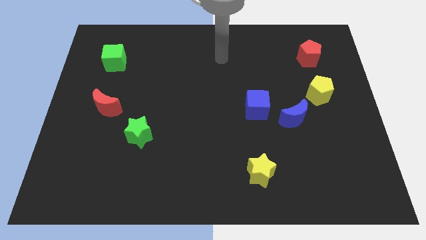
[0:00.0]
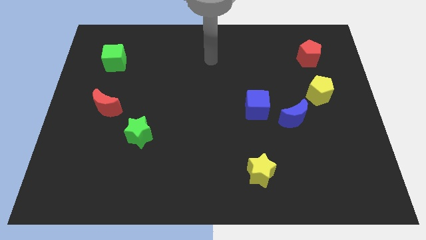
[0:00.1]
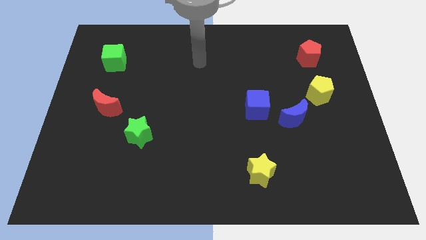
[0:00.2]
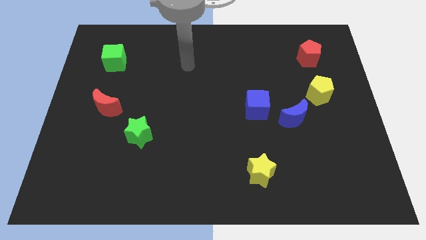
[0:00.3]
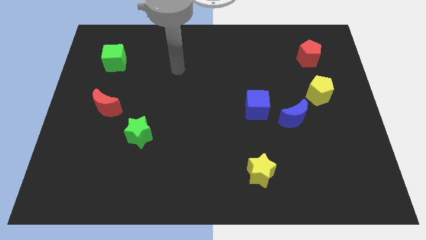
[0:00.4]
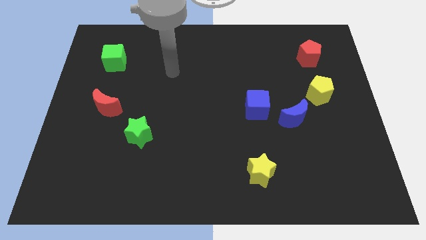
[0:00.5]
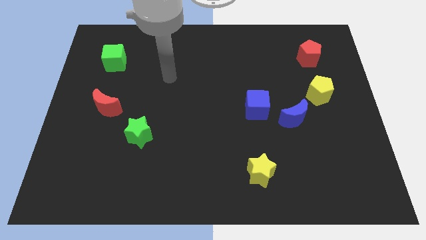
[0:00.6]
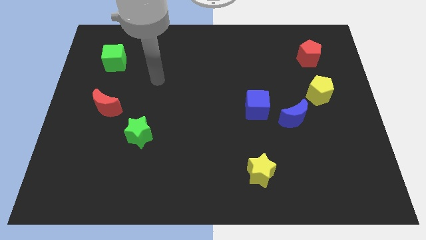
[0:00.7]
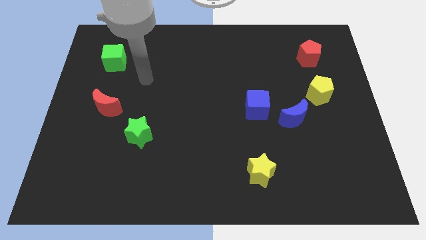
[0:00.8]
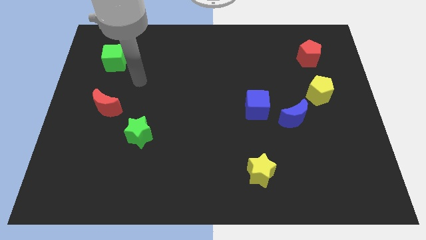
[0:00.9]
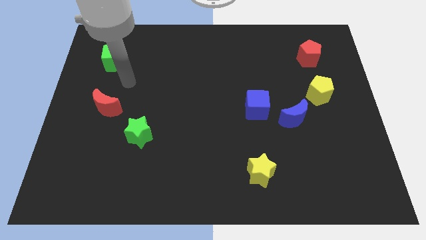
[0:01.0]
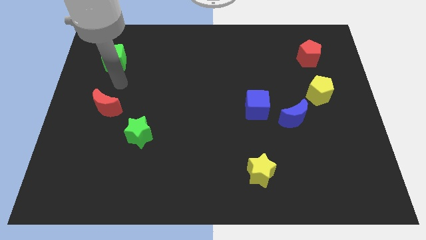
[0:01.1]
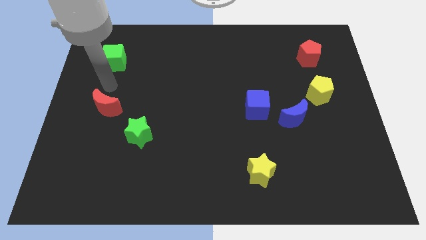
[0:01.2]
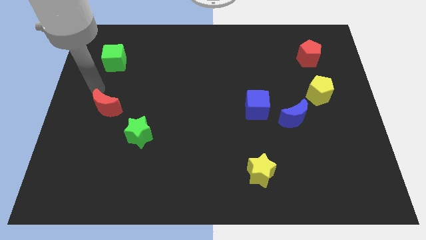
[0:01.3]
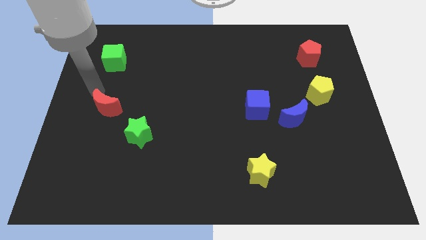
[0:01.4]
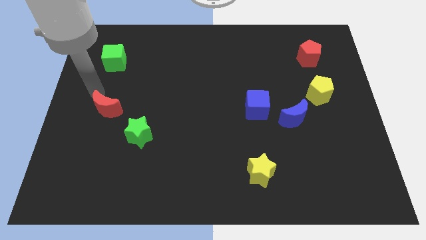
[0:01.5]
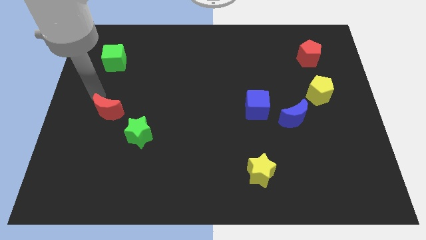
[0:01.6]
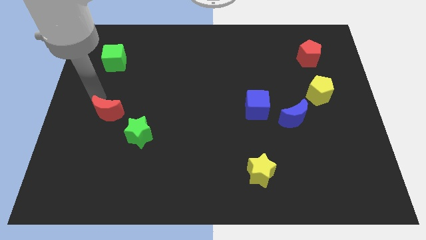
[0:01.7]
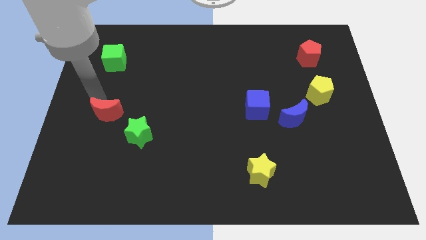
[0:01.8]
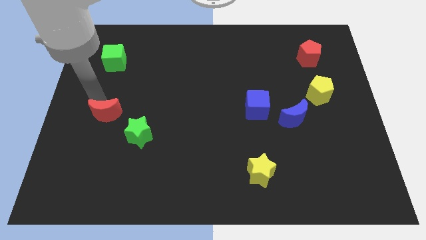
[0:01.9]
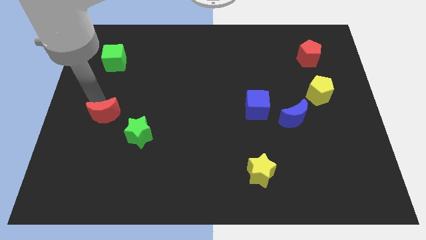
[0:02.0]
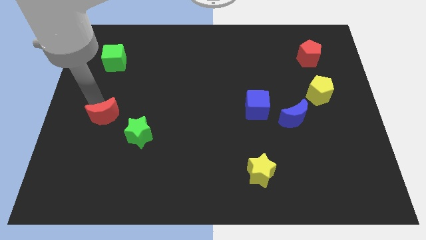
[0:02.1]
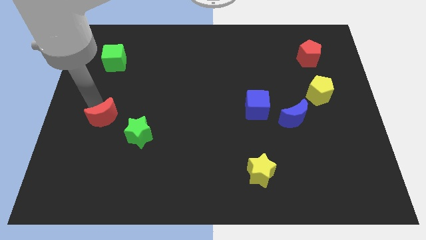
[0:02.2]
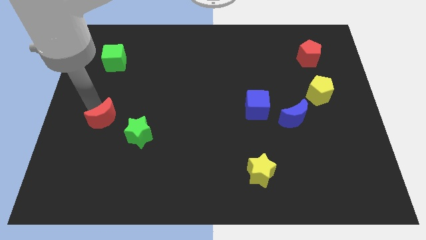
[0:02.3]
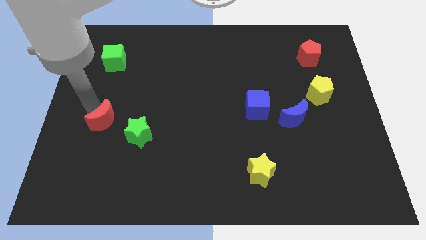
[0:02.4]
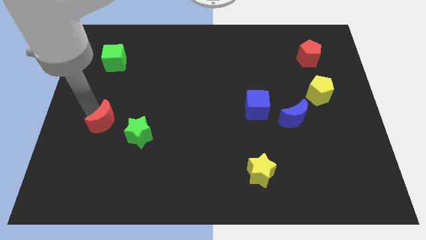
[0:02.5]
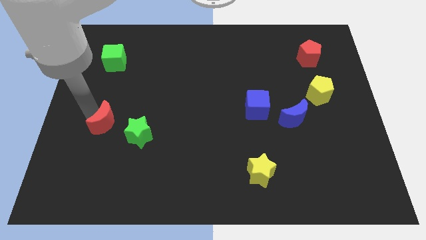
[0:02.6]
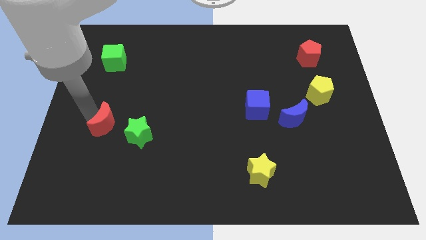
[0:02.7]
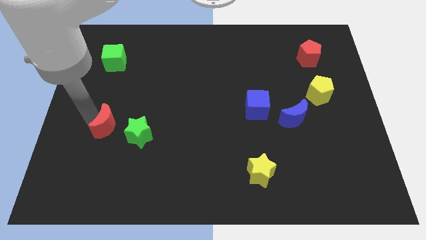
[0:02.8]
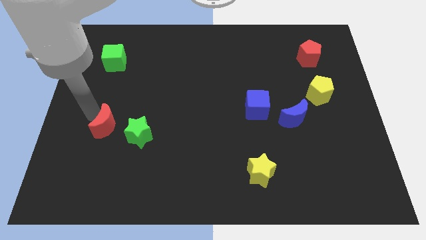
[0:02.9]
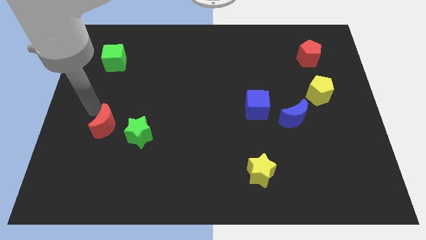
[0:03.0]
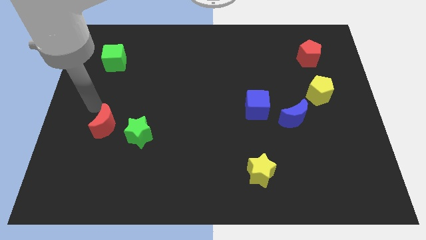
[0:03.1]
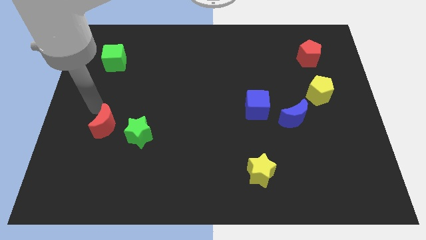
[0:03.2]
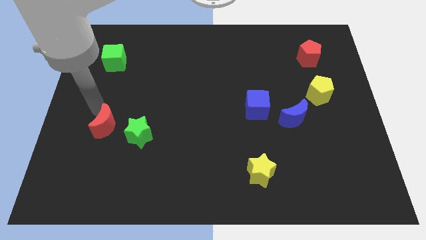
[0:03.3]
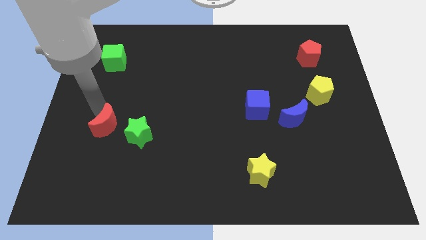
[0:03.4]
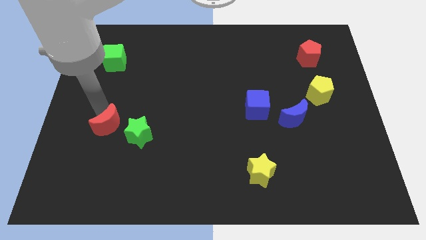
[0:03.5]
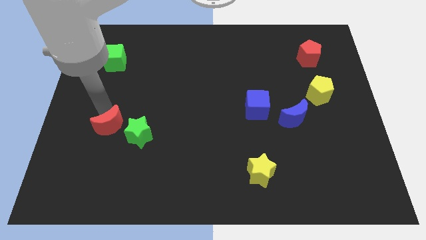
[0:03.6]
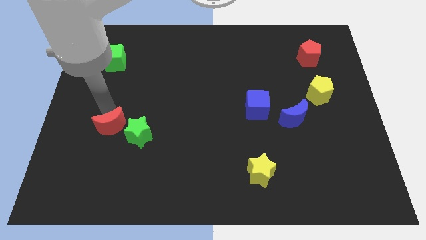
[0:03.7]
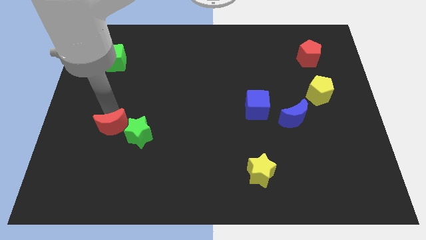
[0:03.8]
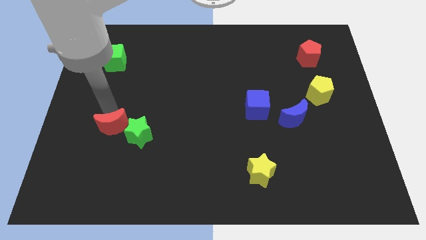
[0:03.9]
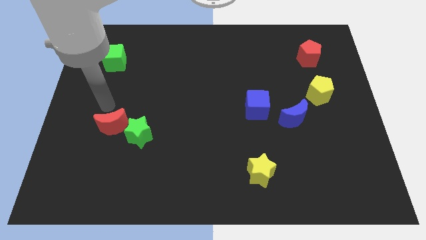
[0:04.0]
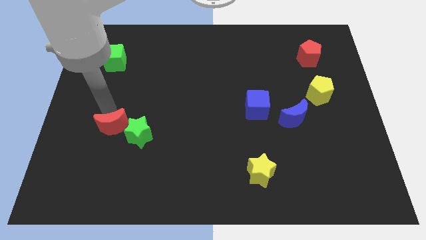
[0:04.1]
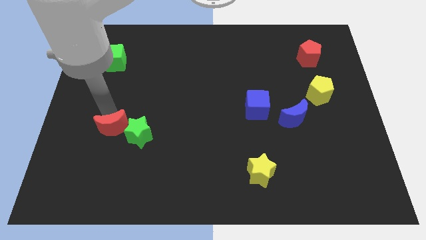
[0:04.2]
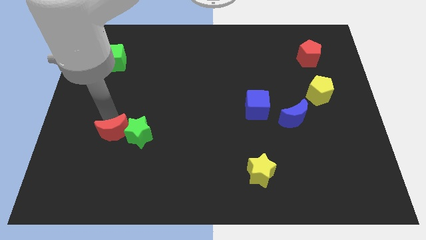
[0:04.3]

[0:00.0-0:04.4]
push the red moon a little down and right

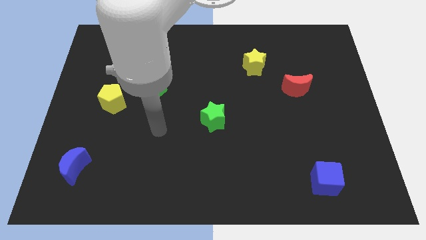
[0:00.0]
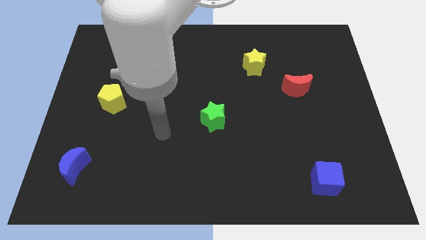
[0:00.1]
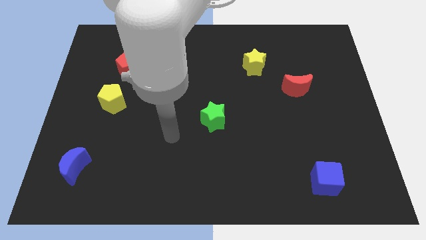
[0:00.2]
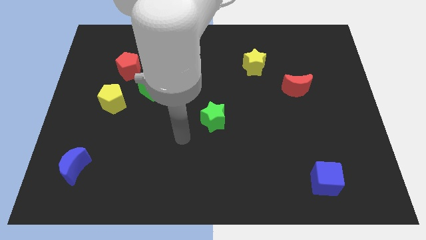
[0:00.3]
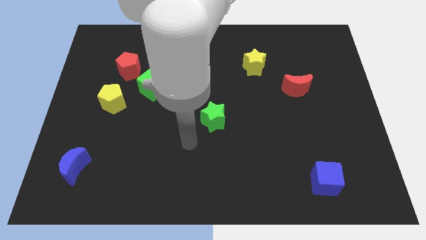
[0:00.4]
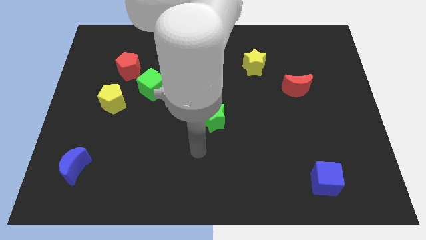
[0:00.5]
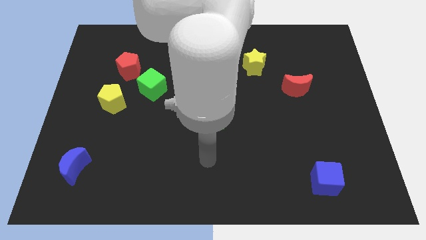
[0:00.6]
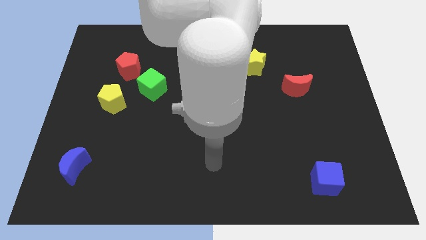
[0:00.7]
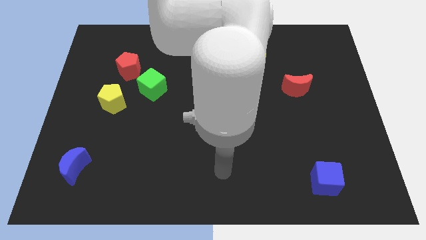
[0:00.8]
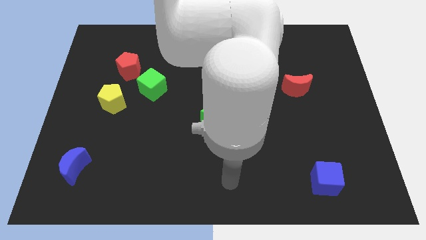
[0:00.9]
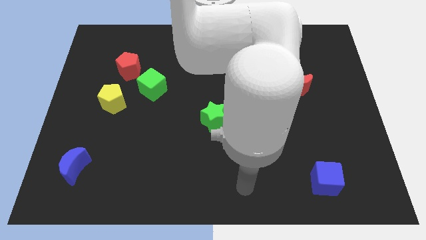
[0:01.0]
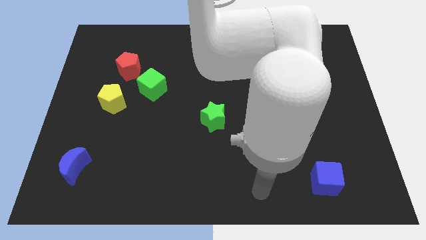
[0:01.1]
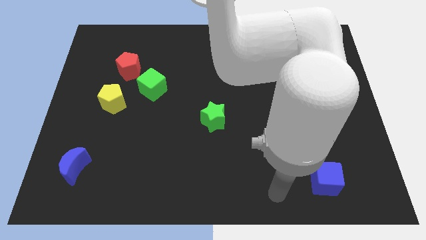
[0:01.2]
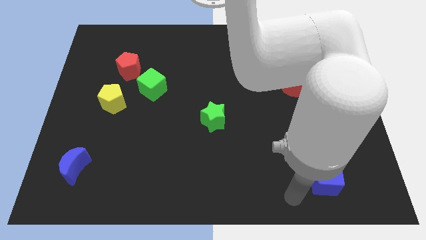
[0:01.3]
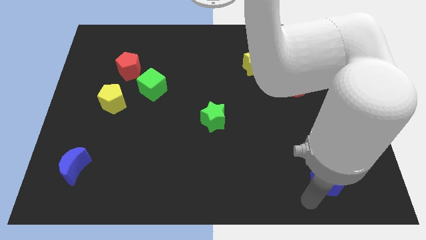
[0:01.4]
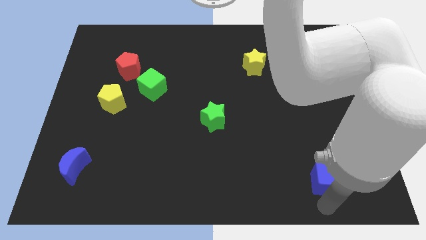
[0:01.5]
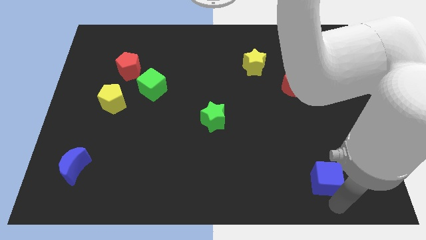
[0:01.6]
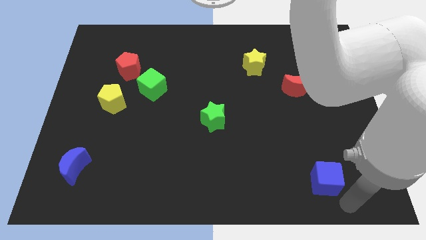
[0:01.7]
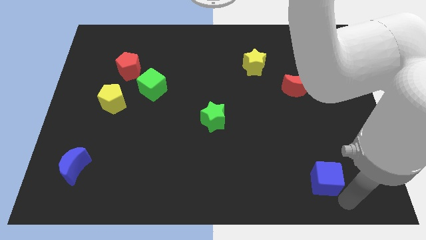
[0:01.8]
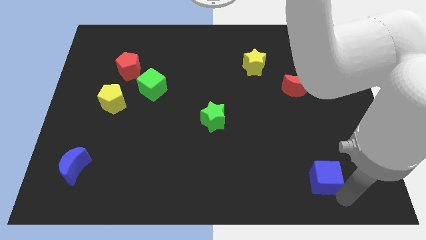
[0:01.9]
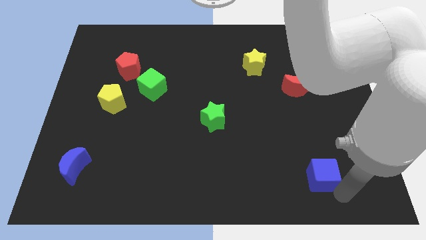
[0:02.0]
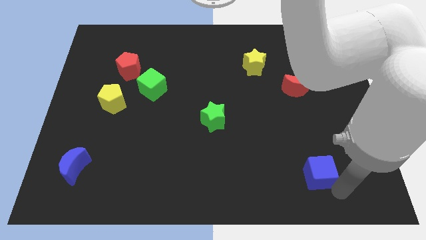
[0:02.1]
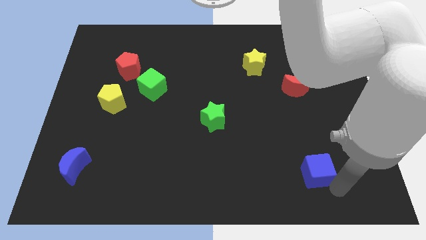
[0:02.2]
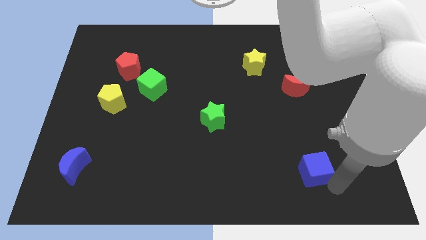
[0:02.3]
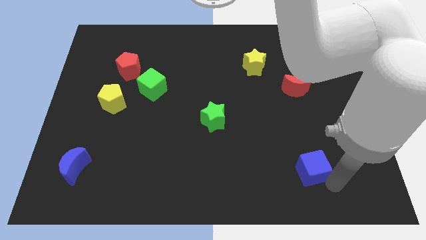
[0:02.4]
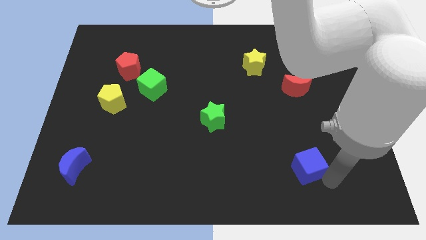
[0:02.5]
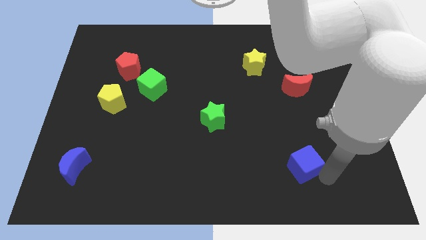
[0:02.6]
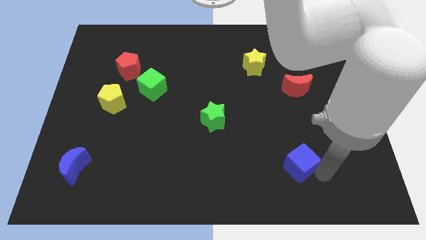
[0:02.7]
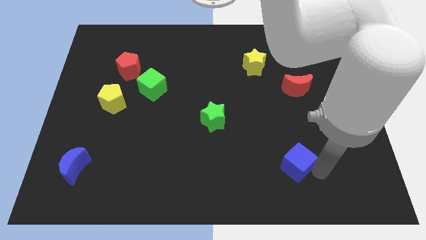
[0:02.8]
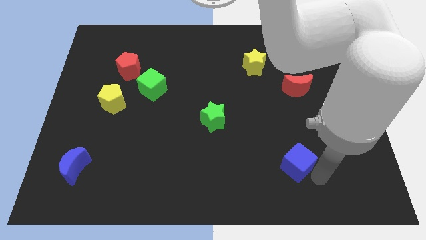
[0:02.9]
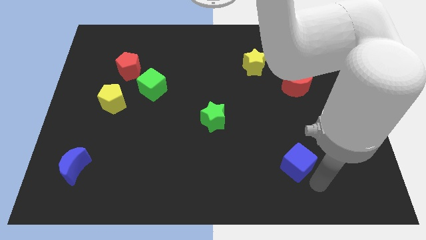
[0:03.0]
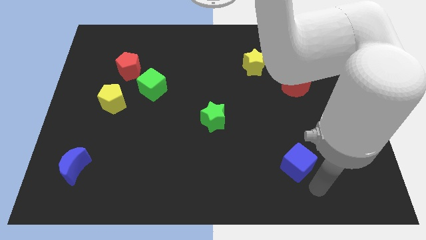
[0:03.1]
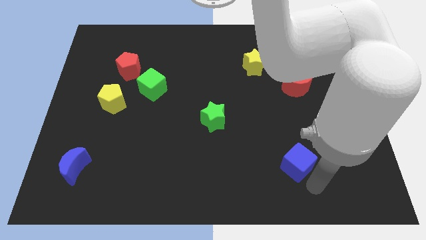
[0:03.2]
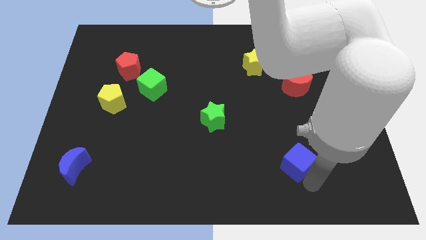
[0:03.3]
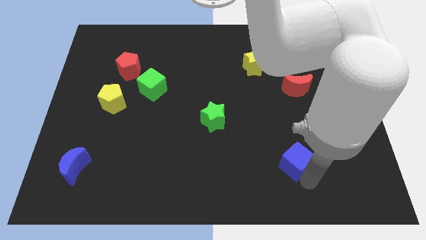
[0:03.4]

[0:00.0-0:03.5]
slightly push the blue cube diagonally upwards and left
